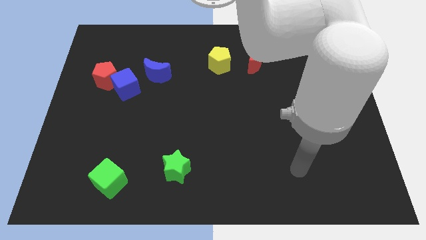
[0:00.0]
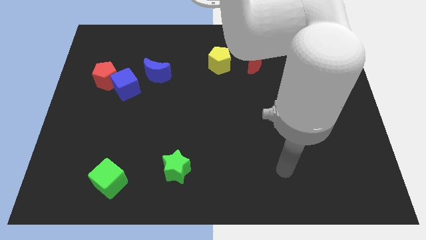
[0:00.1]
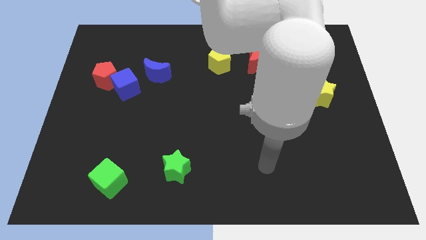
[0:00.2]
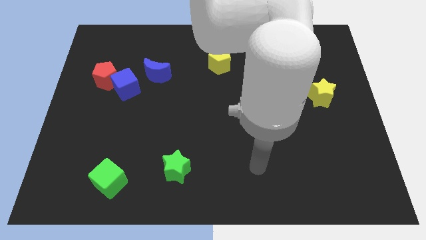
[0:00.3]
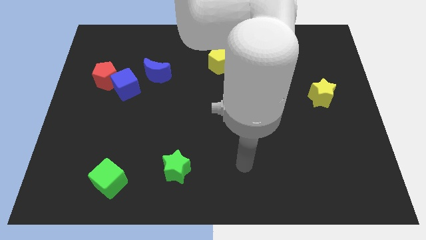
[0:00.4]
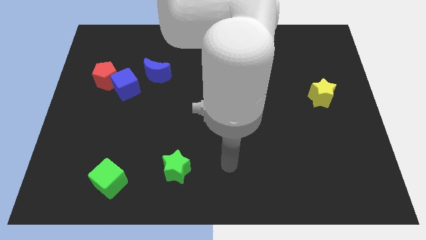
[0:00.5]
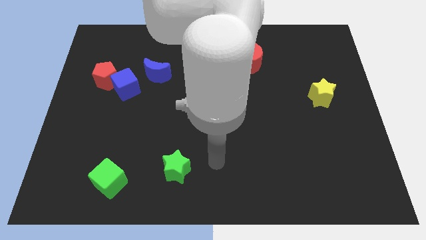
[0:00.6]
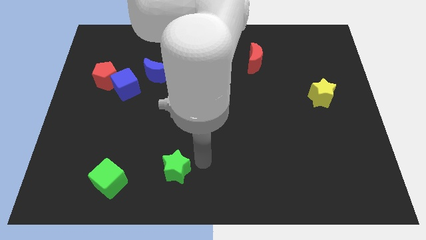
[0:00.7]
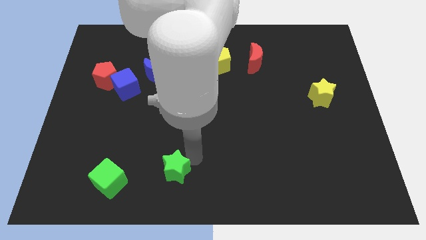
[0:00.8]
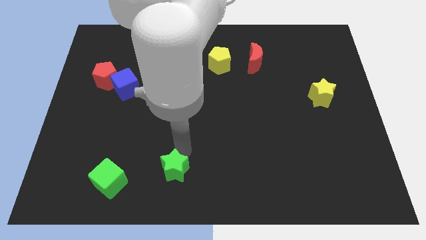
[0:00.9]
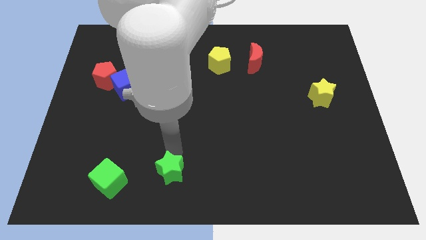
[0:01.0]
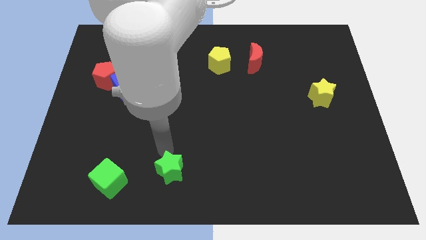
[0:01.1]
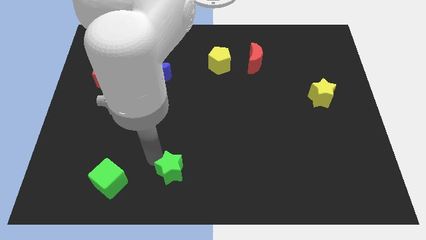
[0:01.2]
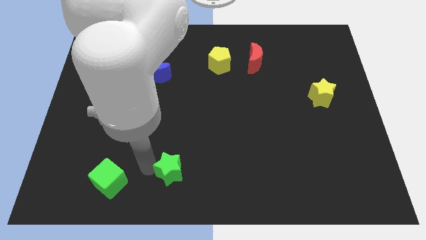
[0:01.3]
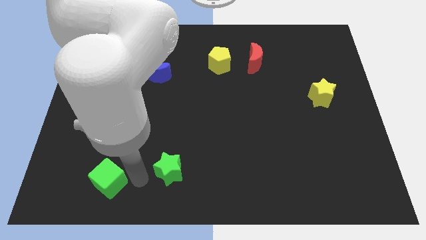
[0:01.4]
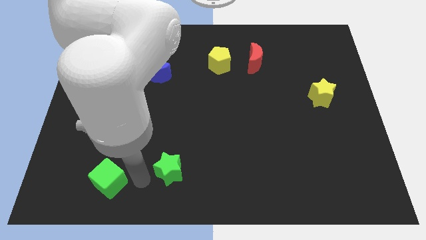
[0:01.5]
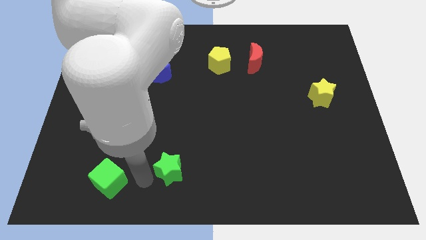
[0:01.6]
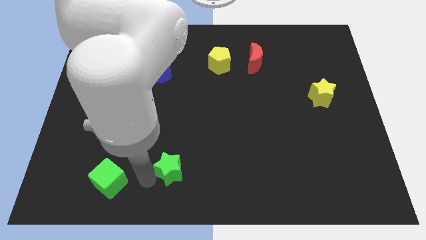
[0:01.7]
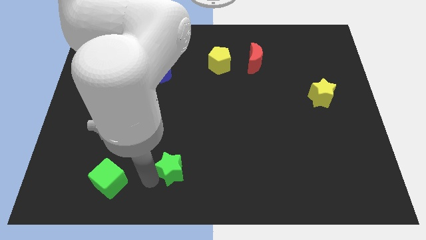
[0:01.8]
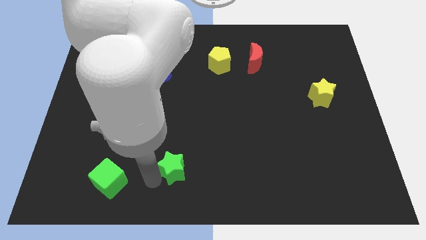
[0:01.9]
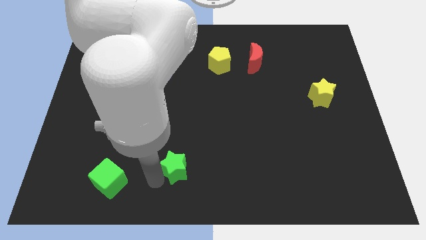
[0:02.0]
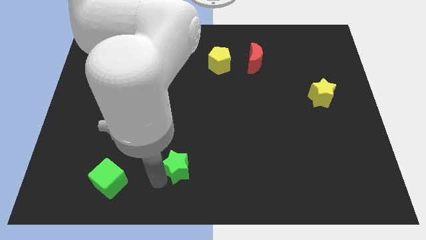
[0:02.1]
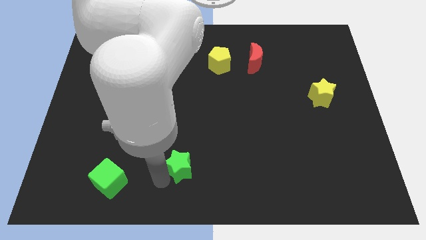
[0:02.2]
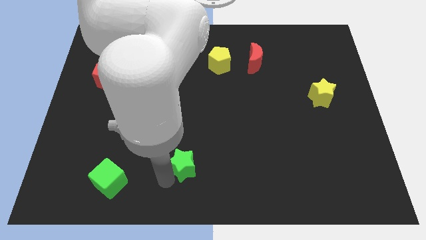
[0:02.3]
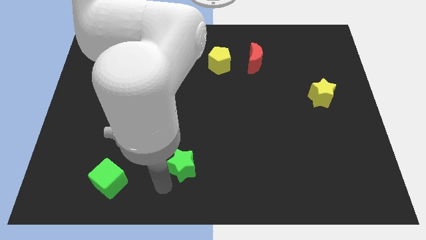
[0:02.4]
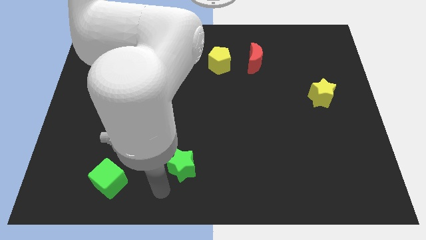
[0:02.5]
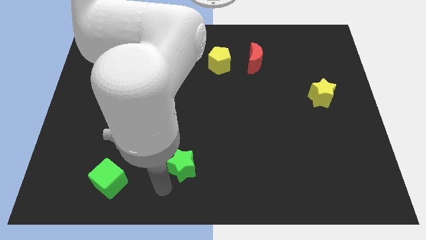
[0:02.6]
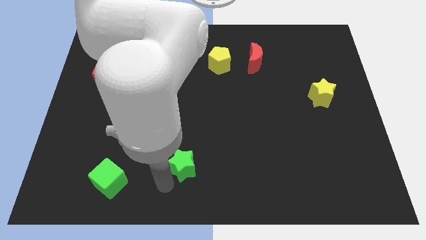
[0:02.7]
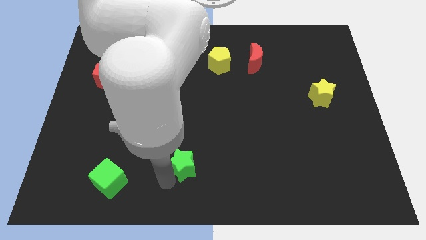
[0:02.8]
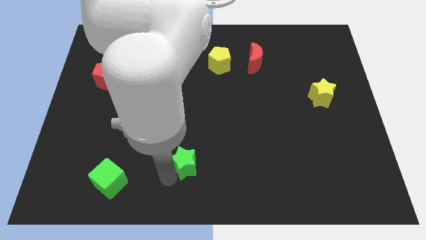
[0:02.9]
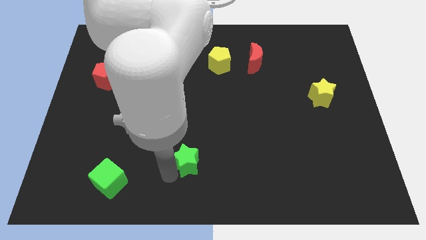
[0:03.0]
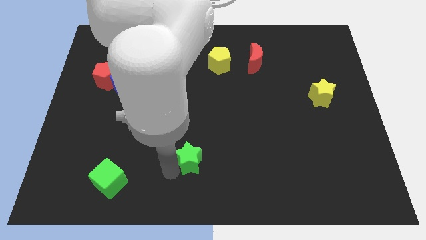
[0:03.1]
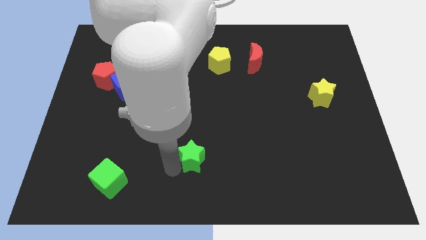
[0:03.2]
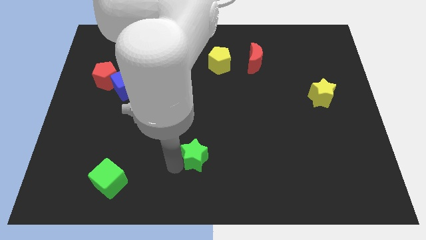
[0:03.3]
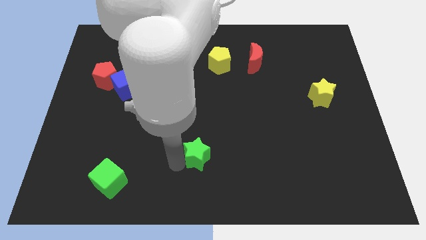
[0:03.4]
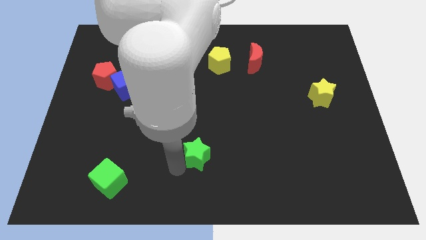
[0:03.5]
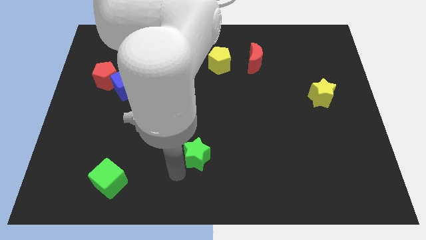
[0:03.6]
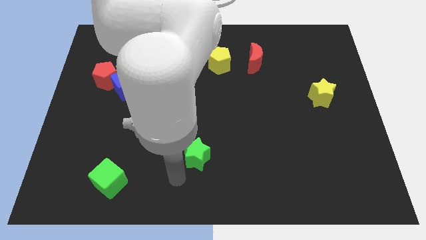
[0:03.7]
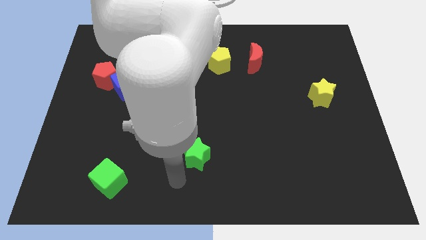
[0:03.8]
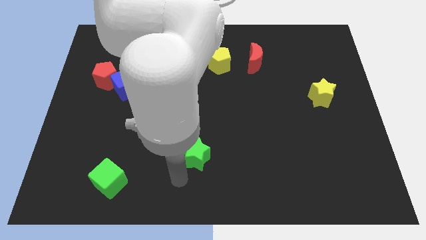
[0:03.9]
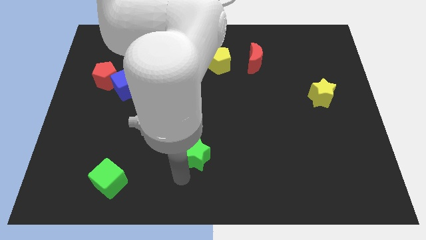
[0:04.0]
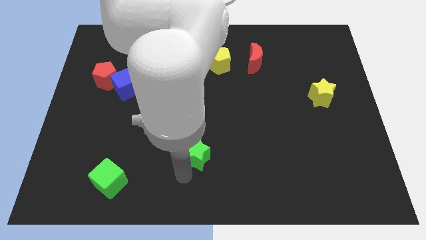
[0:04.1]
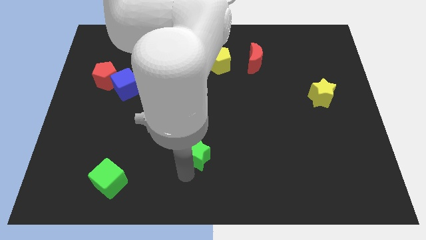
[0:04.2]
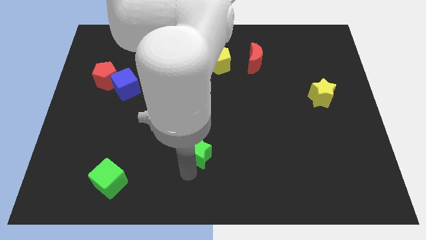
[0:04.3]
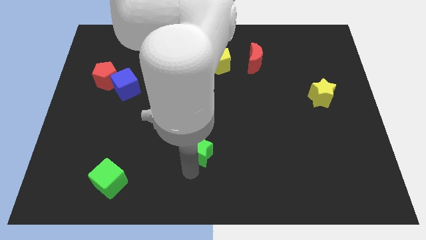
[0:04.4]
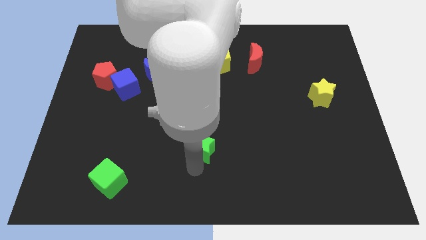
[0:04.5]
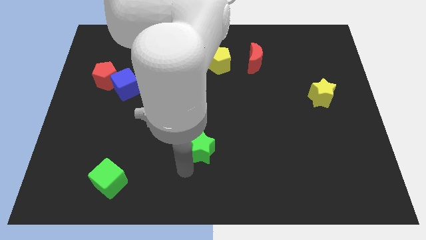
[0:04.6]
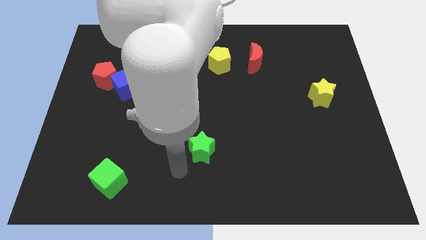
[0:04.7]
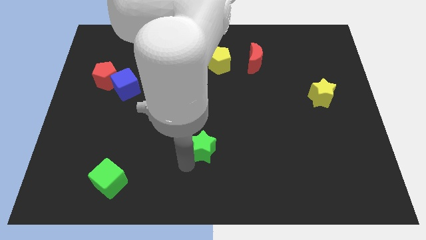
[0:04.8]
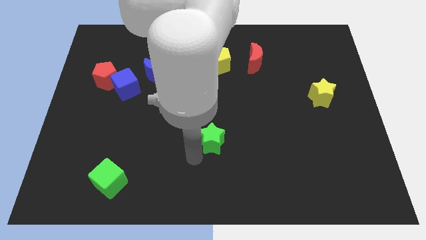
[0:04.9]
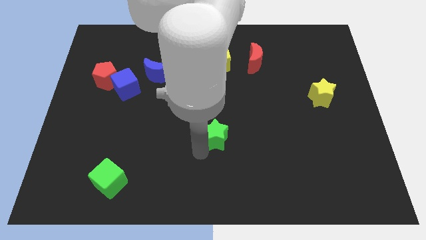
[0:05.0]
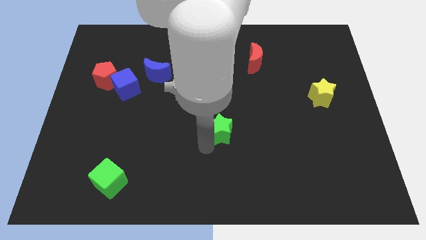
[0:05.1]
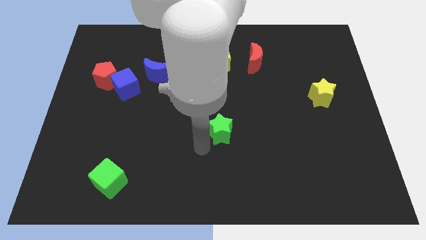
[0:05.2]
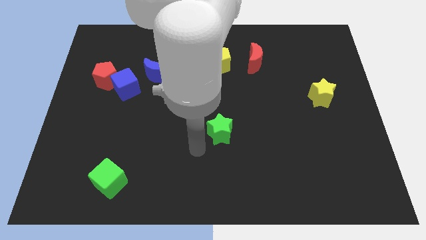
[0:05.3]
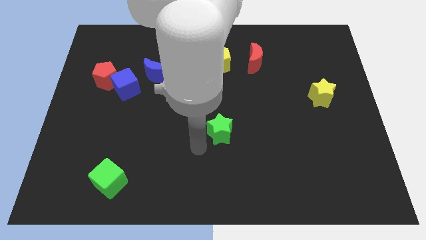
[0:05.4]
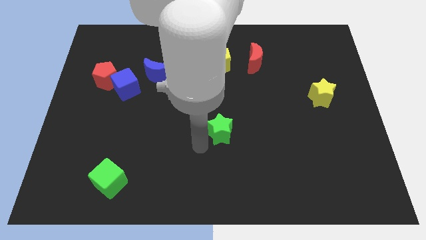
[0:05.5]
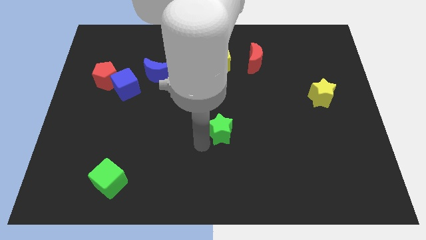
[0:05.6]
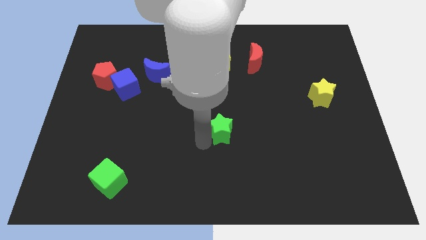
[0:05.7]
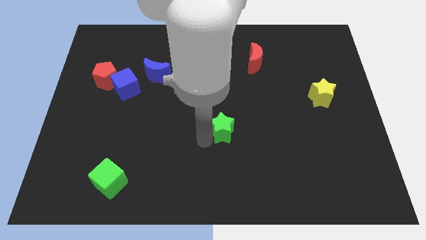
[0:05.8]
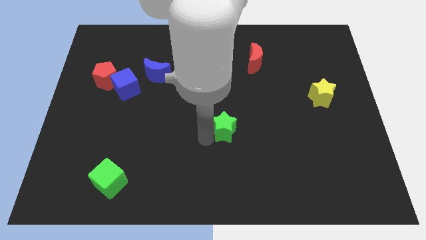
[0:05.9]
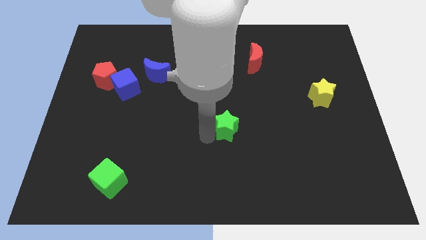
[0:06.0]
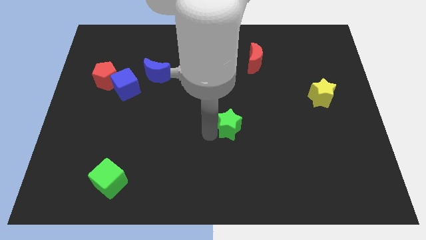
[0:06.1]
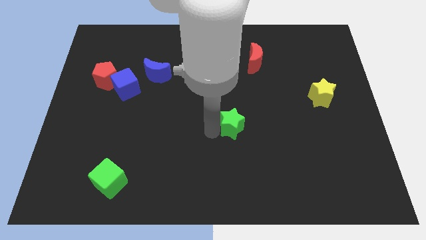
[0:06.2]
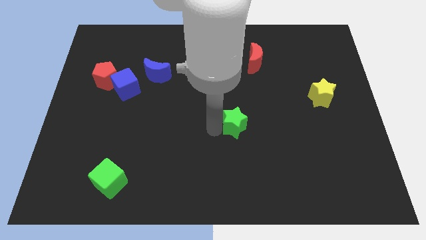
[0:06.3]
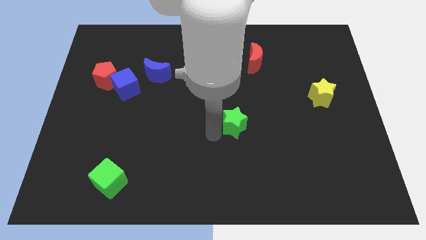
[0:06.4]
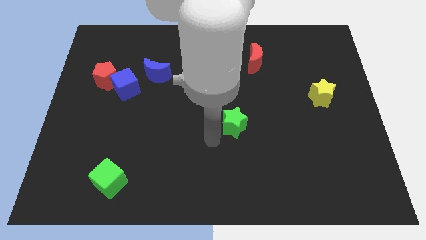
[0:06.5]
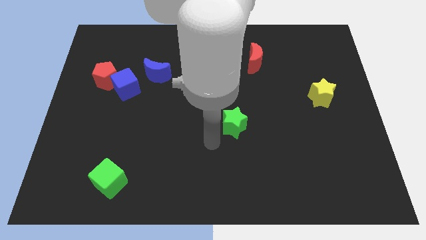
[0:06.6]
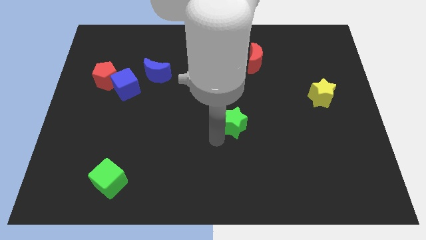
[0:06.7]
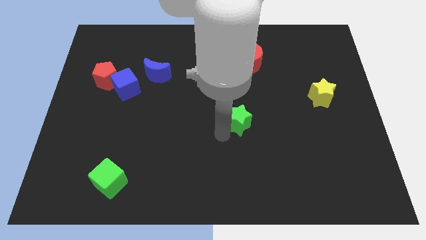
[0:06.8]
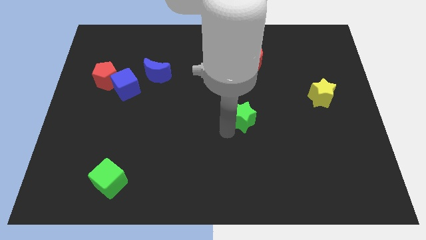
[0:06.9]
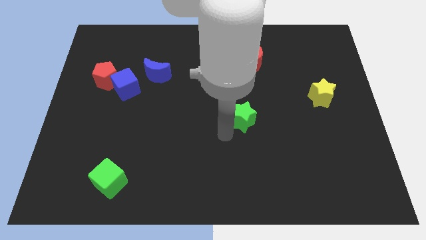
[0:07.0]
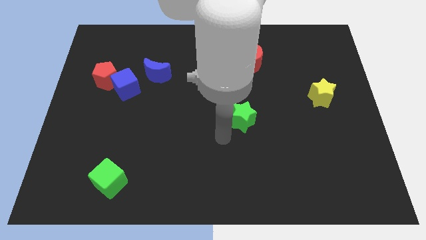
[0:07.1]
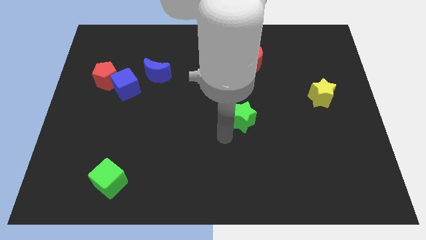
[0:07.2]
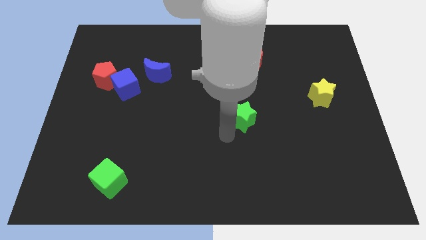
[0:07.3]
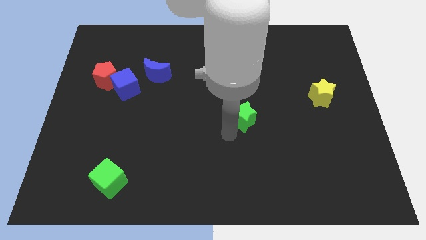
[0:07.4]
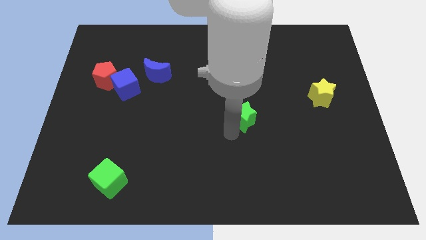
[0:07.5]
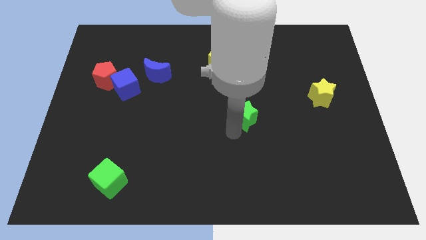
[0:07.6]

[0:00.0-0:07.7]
move the green star diagonally up and to the right

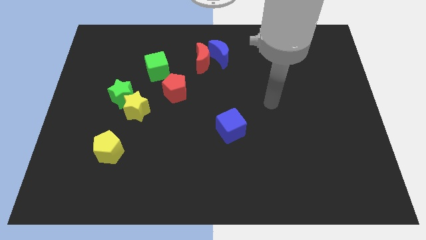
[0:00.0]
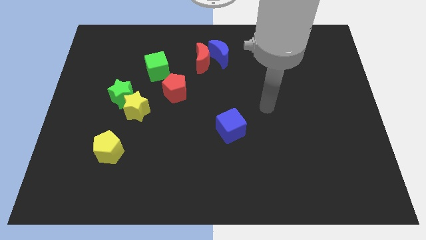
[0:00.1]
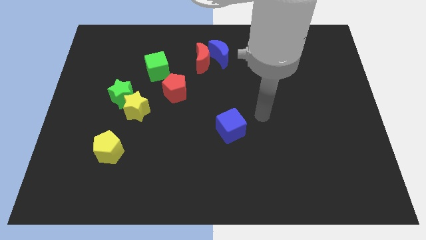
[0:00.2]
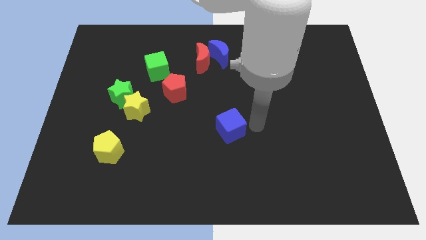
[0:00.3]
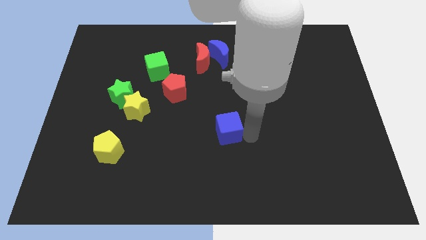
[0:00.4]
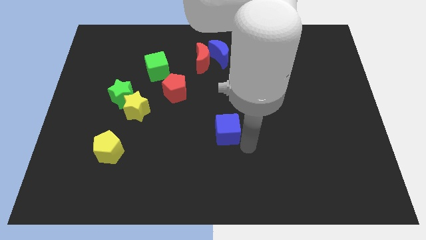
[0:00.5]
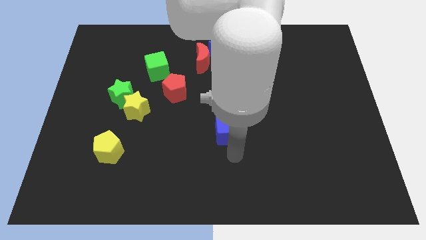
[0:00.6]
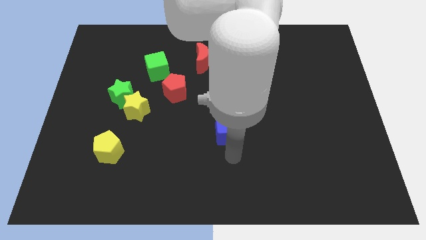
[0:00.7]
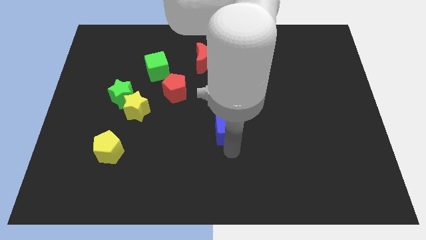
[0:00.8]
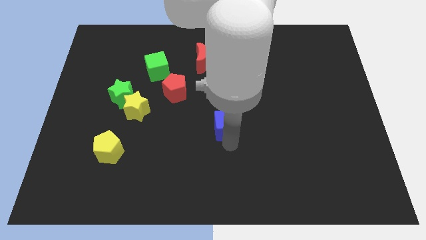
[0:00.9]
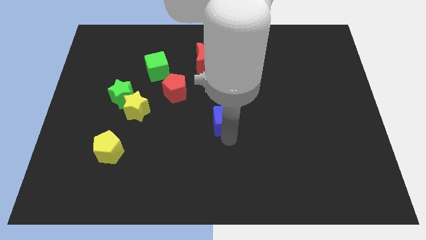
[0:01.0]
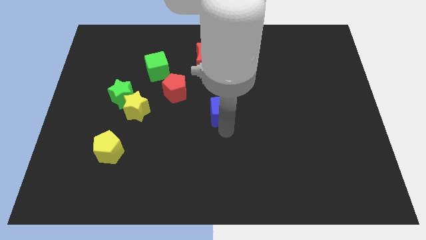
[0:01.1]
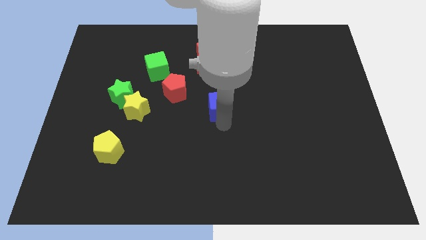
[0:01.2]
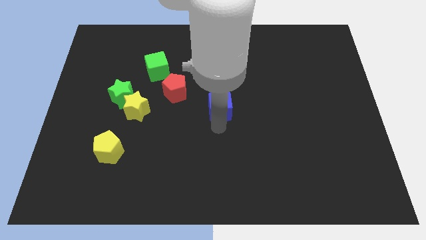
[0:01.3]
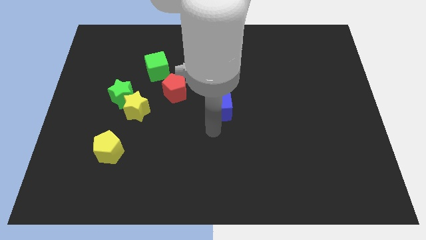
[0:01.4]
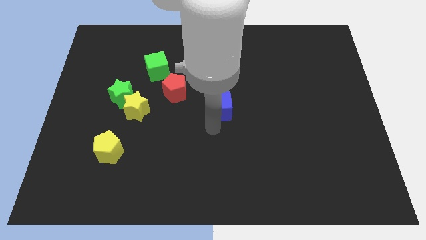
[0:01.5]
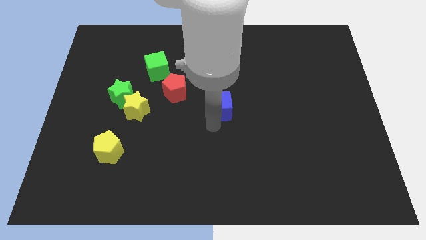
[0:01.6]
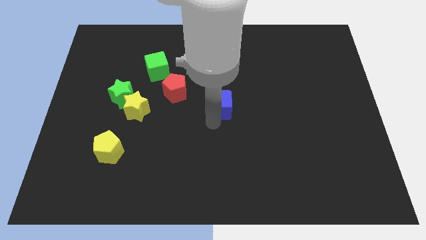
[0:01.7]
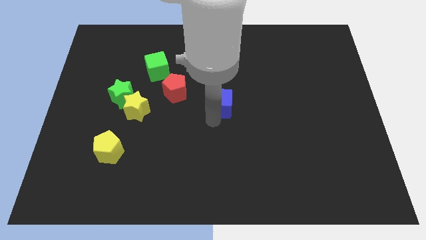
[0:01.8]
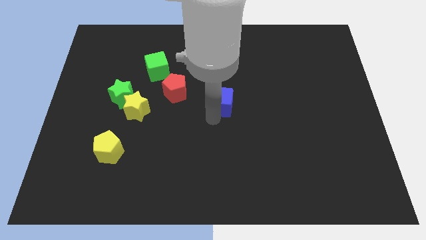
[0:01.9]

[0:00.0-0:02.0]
slightly move the blue cube upwards
